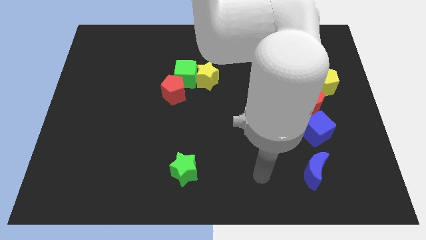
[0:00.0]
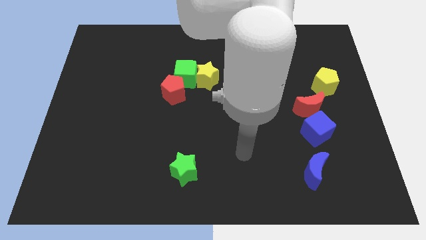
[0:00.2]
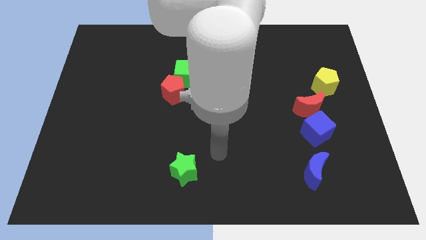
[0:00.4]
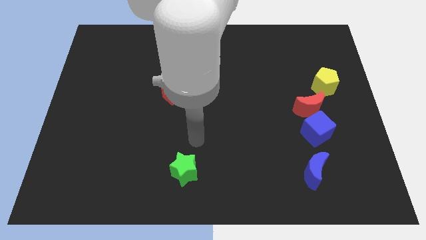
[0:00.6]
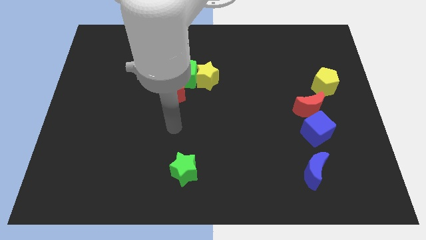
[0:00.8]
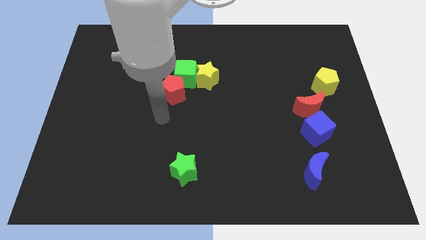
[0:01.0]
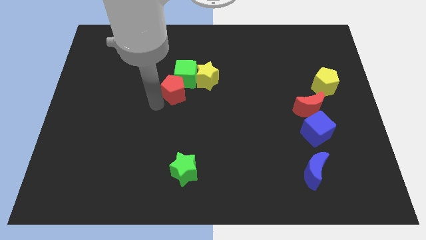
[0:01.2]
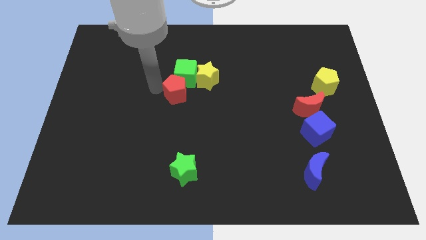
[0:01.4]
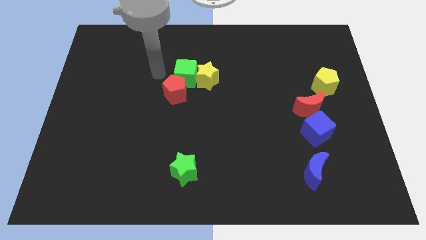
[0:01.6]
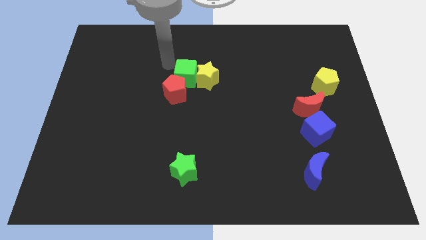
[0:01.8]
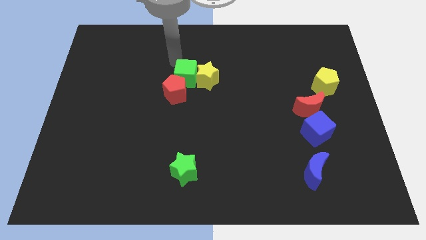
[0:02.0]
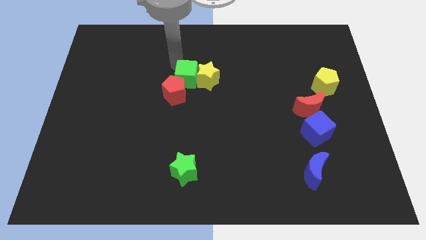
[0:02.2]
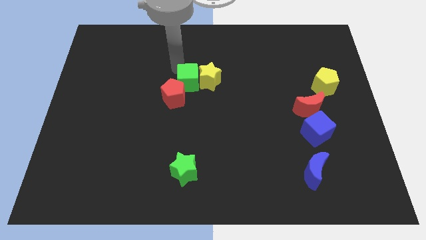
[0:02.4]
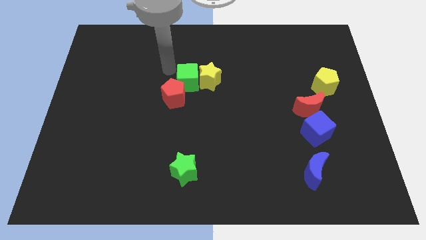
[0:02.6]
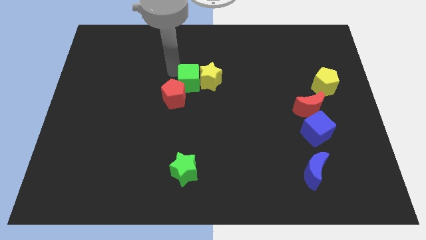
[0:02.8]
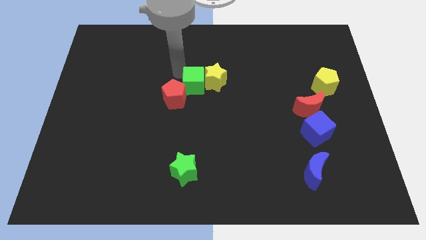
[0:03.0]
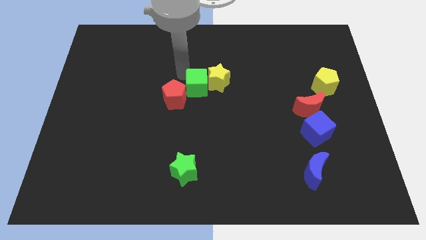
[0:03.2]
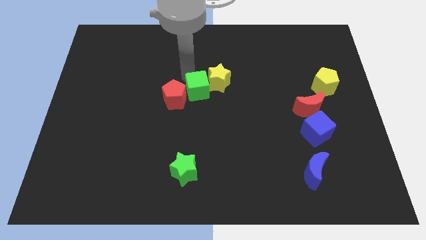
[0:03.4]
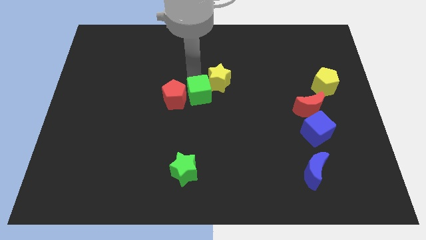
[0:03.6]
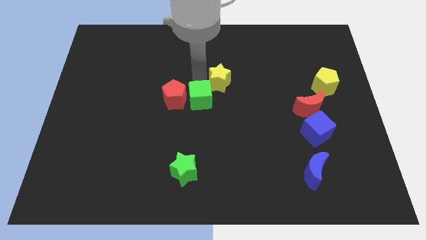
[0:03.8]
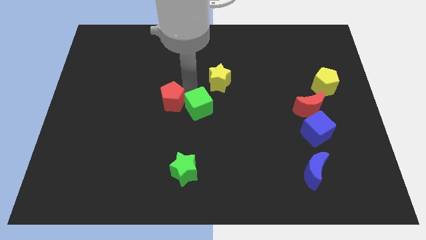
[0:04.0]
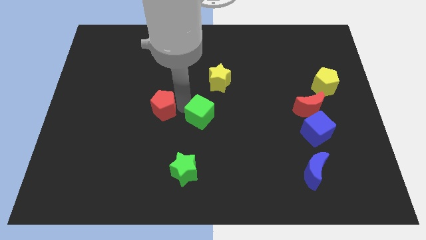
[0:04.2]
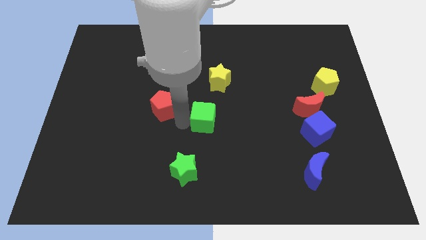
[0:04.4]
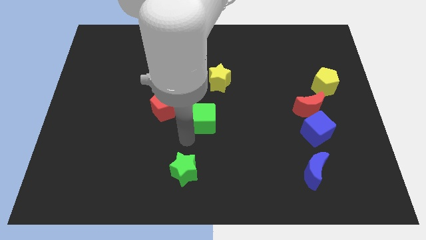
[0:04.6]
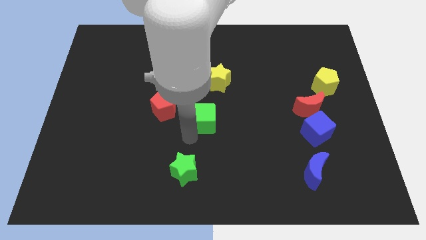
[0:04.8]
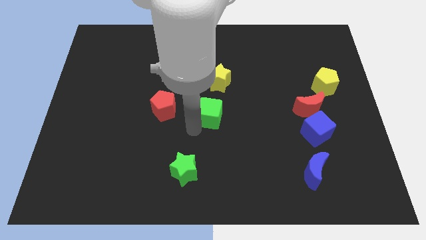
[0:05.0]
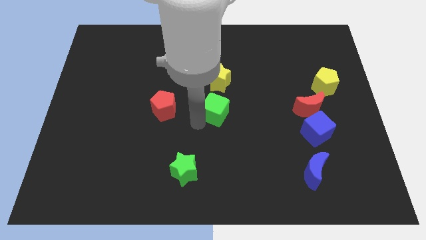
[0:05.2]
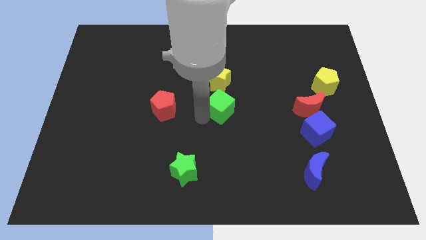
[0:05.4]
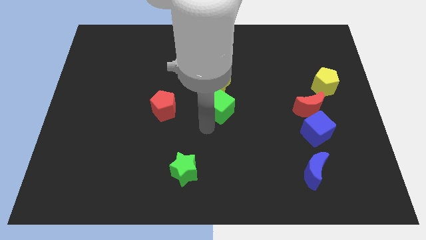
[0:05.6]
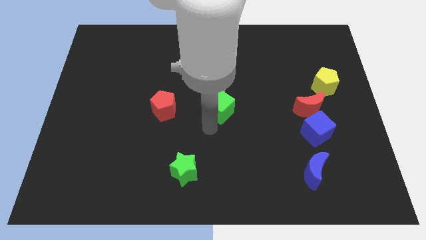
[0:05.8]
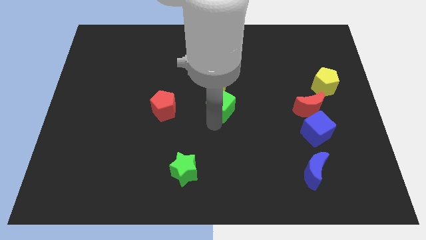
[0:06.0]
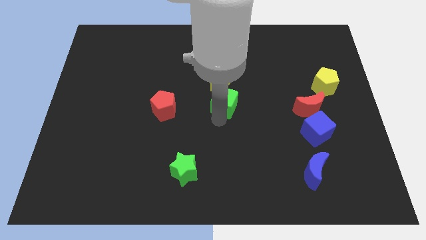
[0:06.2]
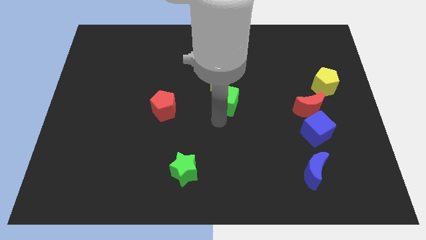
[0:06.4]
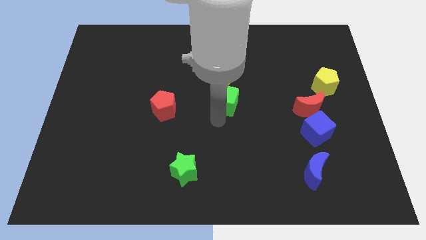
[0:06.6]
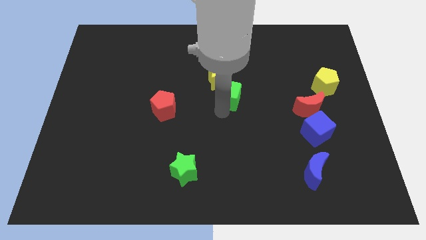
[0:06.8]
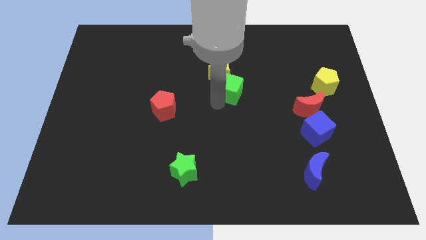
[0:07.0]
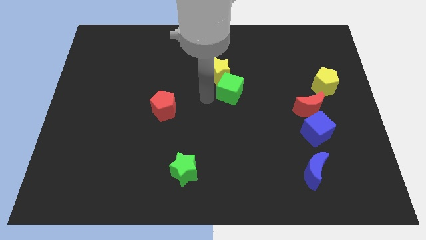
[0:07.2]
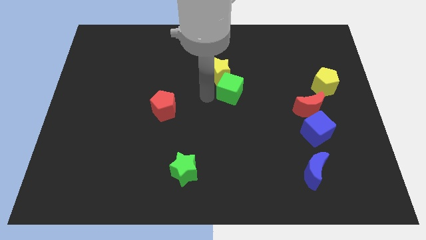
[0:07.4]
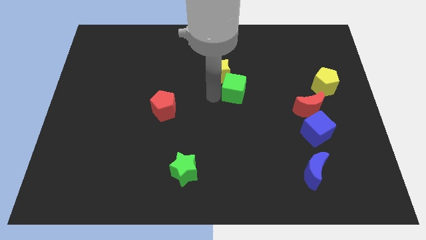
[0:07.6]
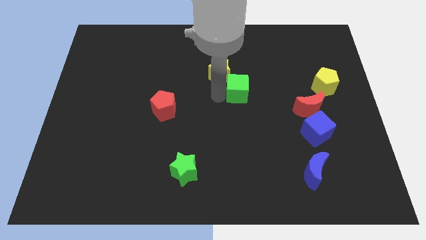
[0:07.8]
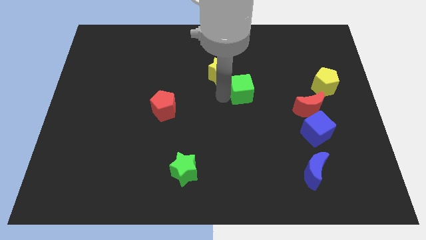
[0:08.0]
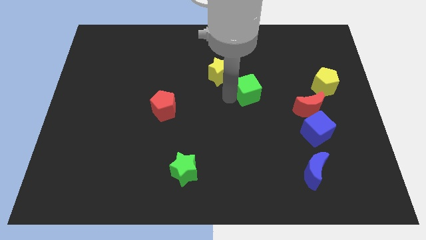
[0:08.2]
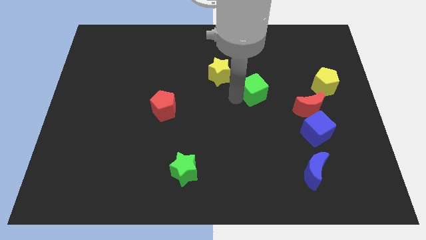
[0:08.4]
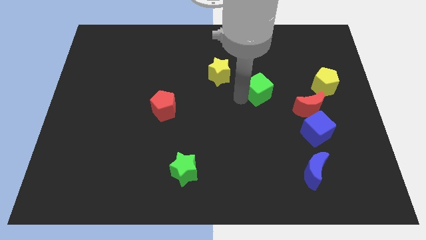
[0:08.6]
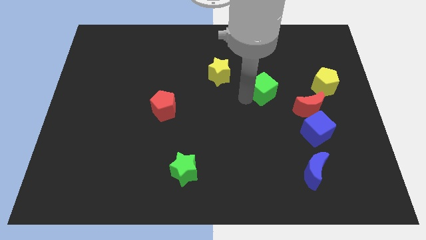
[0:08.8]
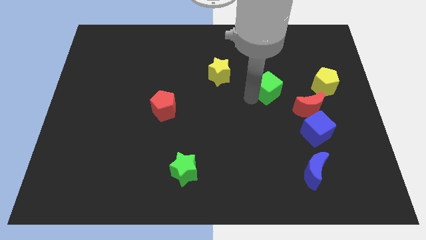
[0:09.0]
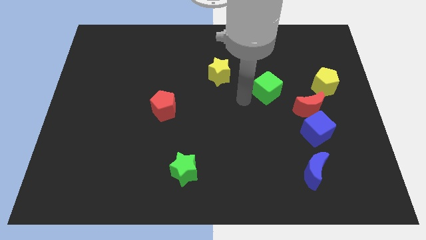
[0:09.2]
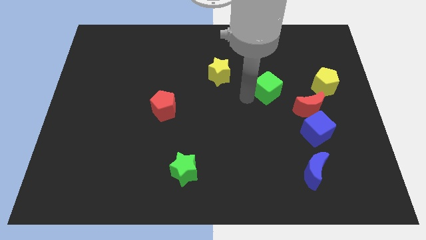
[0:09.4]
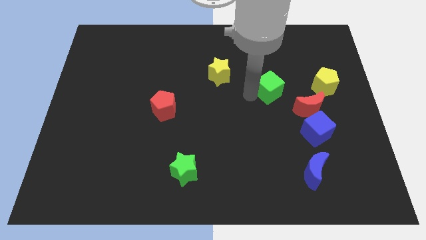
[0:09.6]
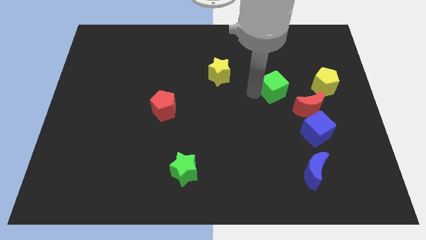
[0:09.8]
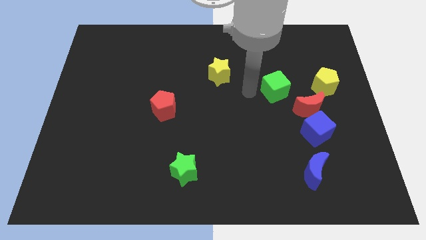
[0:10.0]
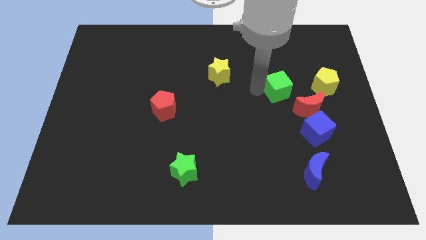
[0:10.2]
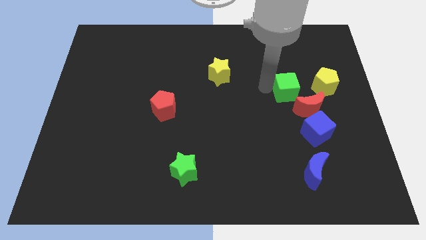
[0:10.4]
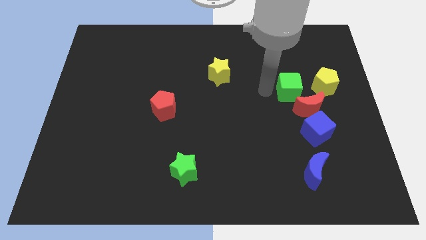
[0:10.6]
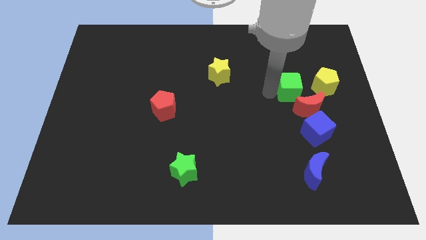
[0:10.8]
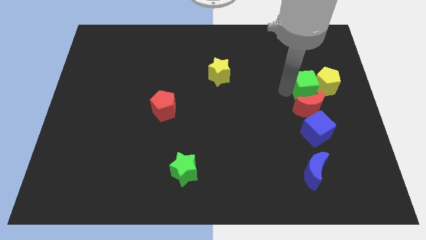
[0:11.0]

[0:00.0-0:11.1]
slide the green cube next to the yellow pentagon

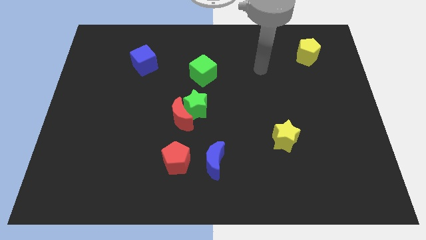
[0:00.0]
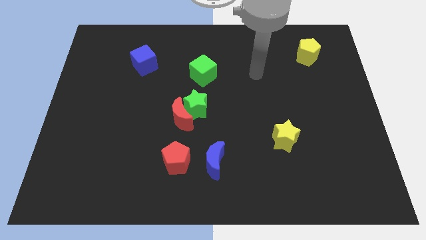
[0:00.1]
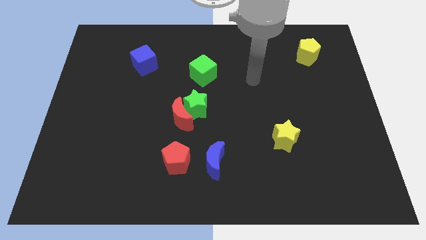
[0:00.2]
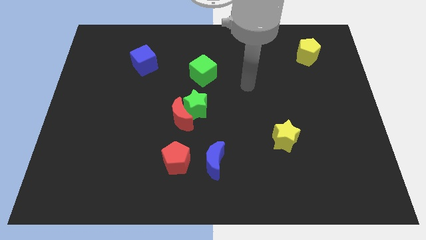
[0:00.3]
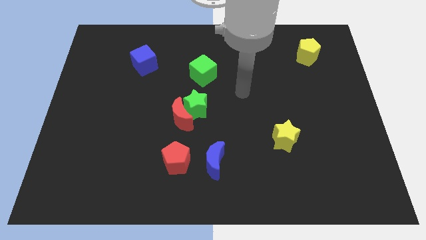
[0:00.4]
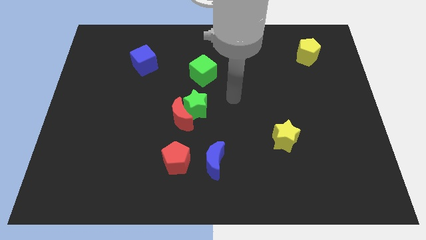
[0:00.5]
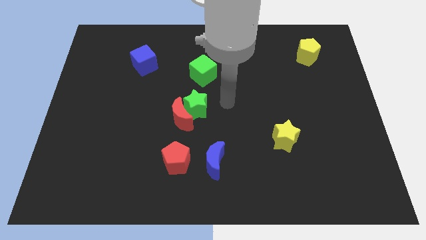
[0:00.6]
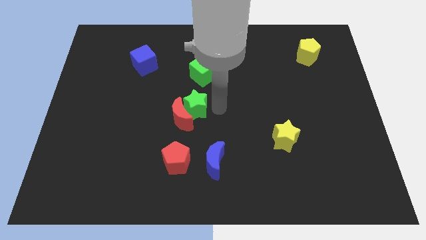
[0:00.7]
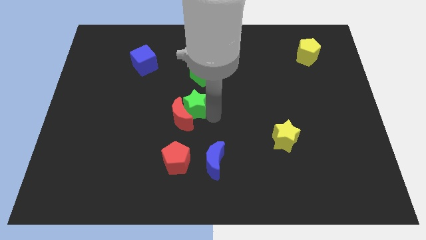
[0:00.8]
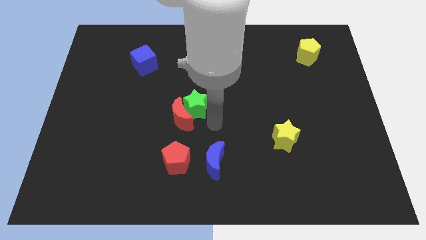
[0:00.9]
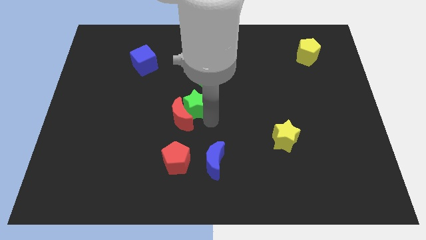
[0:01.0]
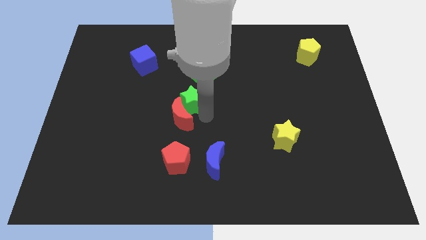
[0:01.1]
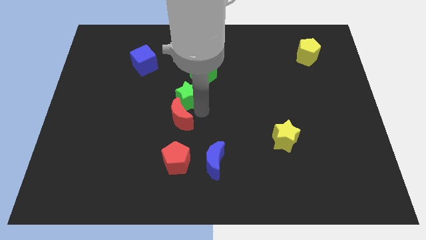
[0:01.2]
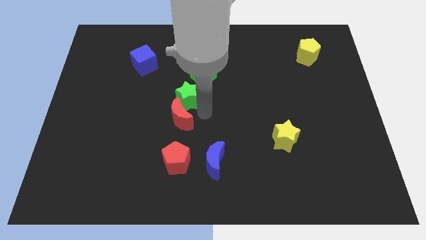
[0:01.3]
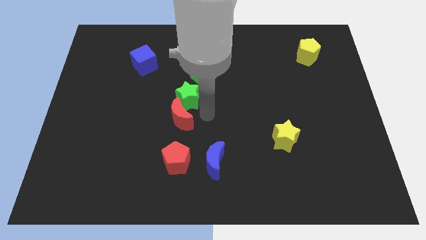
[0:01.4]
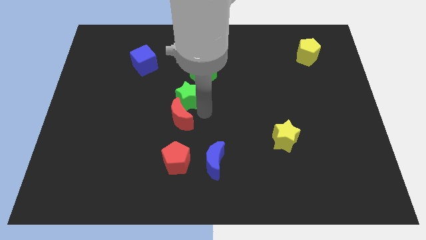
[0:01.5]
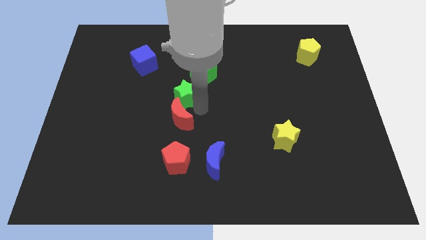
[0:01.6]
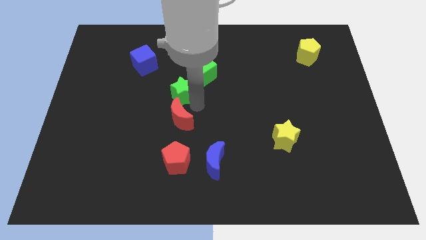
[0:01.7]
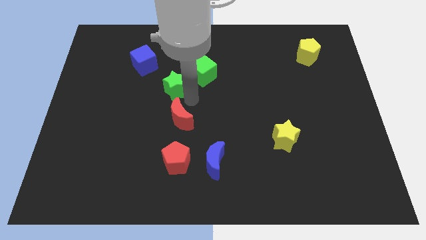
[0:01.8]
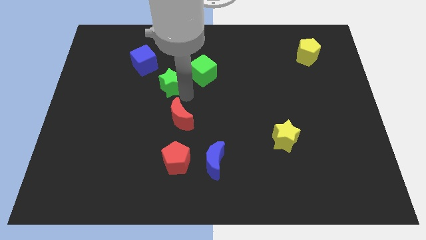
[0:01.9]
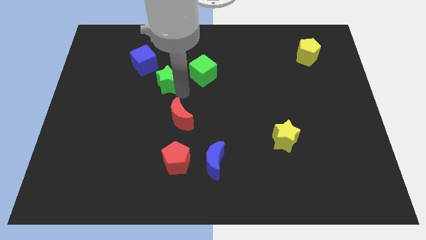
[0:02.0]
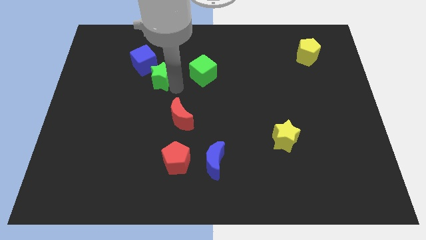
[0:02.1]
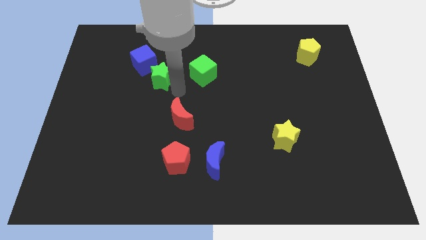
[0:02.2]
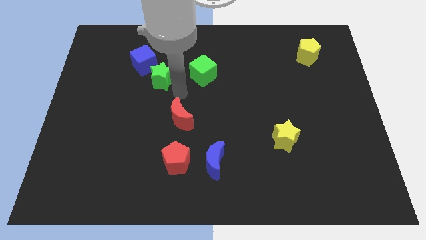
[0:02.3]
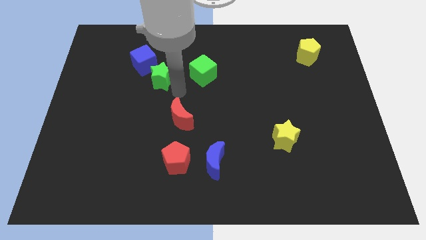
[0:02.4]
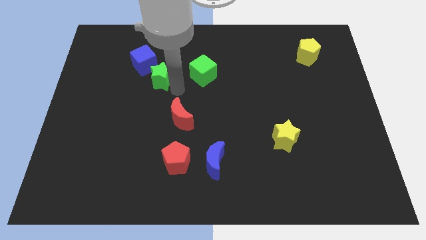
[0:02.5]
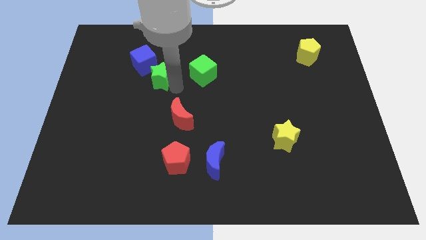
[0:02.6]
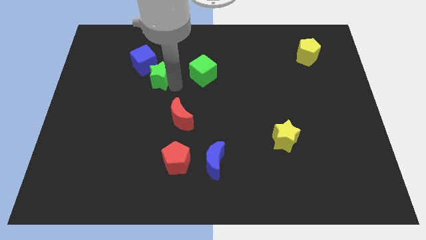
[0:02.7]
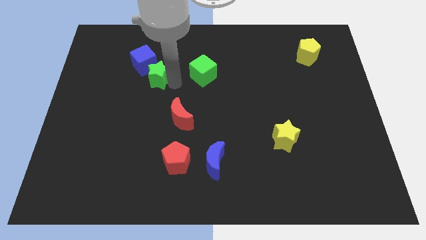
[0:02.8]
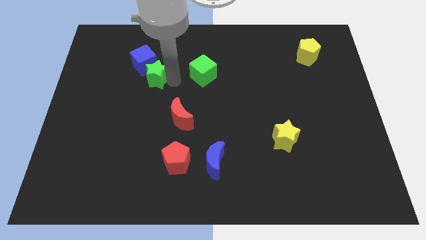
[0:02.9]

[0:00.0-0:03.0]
slide the green star towards the blue cube
